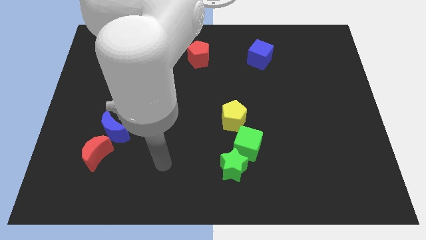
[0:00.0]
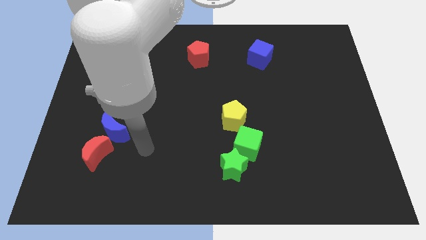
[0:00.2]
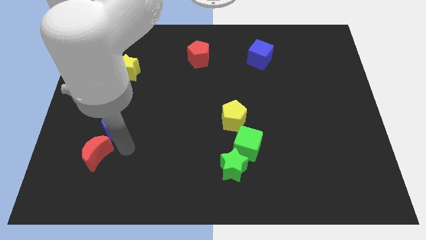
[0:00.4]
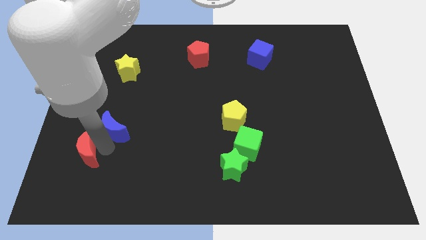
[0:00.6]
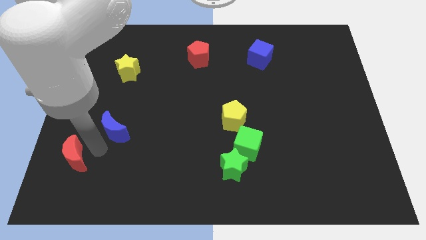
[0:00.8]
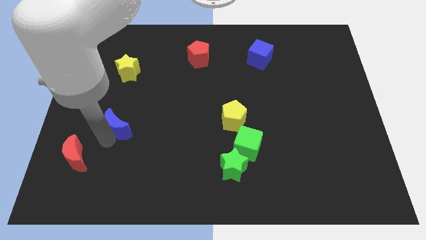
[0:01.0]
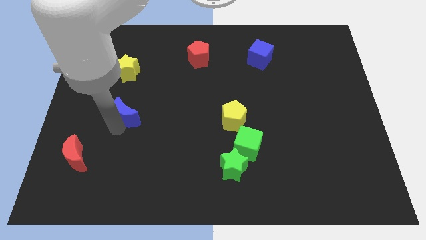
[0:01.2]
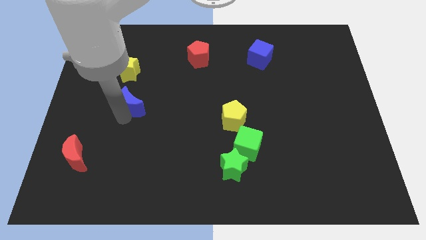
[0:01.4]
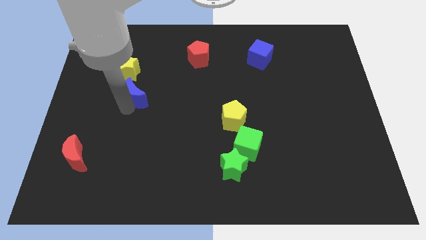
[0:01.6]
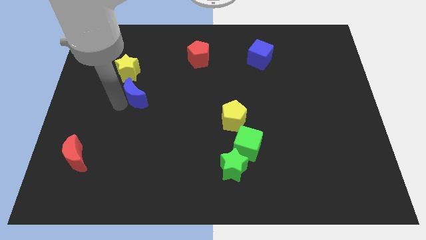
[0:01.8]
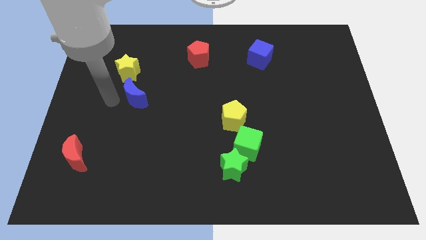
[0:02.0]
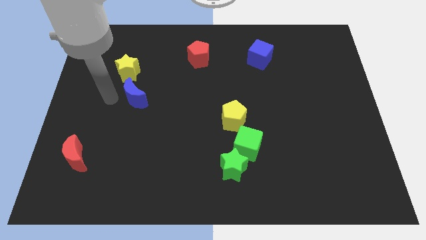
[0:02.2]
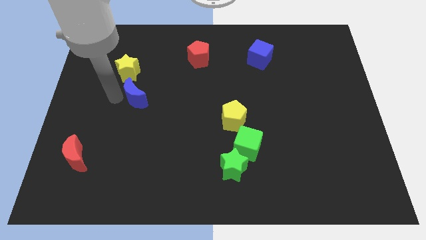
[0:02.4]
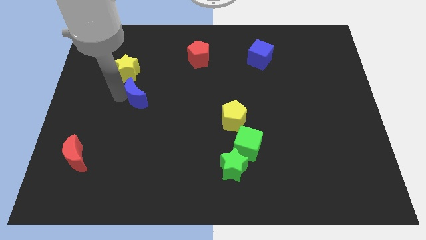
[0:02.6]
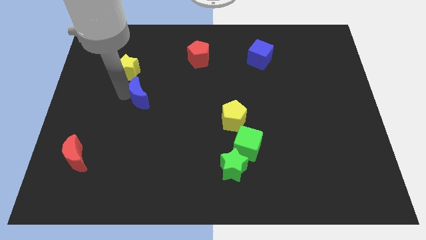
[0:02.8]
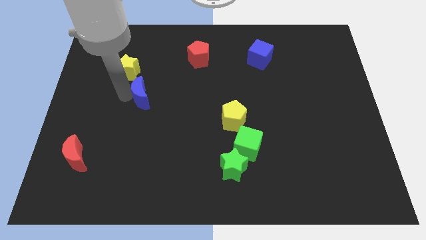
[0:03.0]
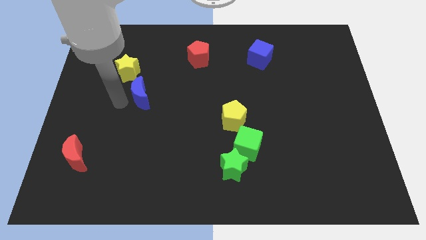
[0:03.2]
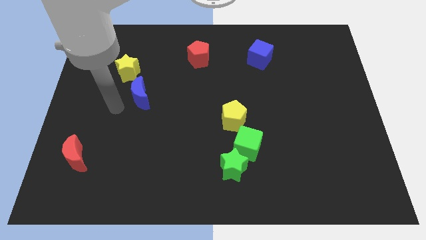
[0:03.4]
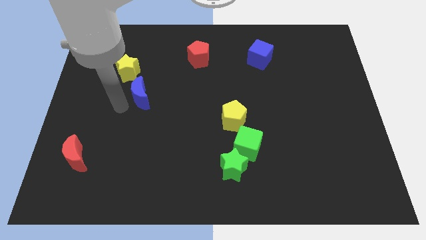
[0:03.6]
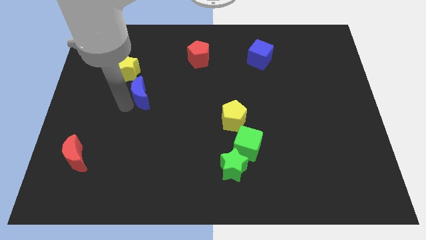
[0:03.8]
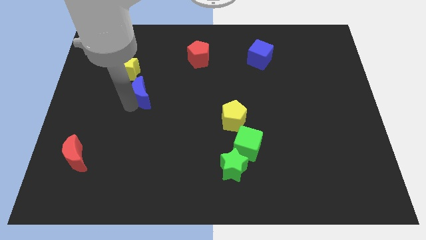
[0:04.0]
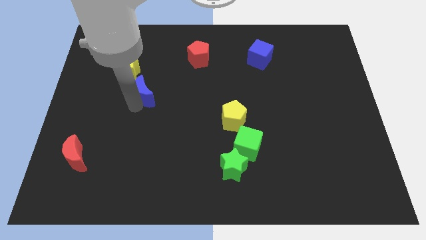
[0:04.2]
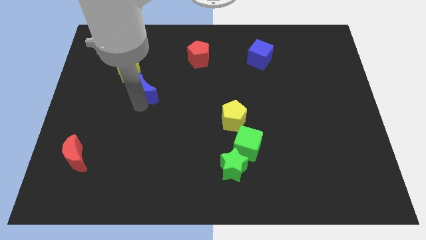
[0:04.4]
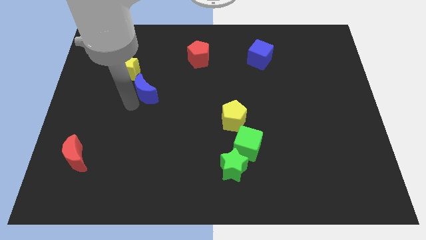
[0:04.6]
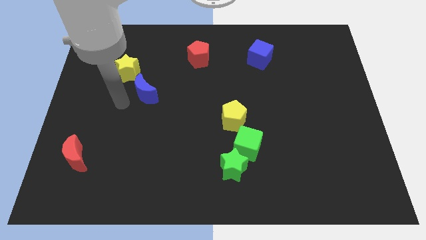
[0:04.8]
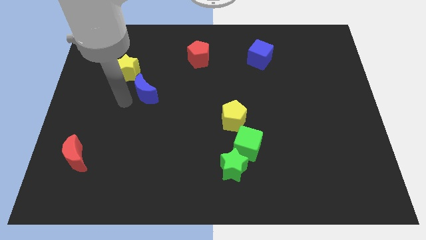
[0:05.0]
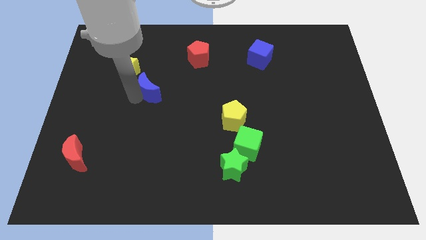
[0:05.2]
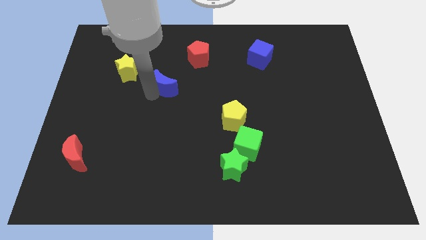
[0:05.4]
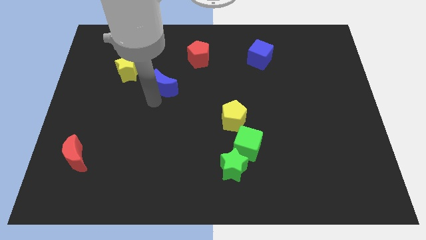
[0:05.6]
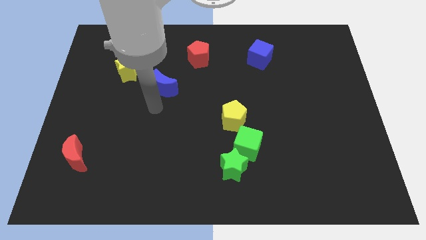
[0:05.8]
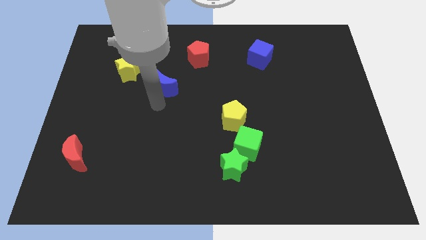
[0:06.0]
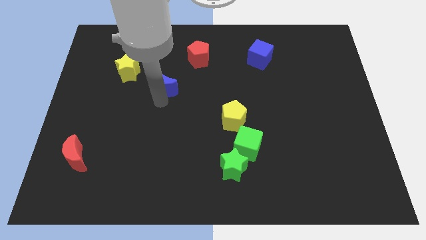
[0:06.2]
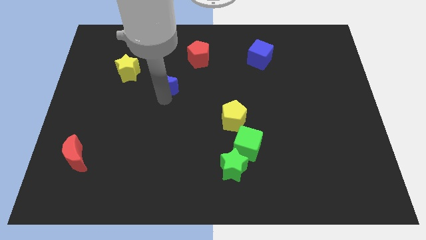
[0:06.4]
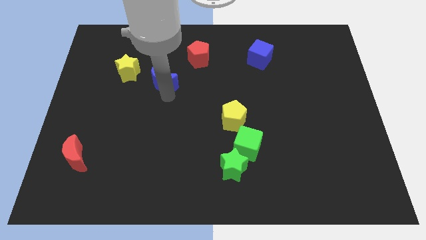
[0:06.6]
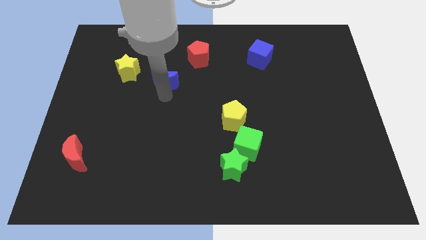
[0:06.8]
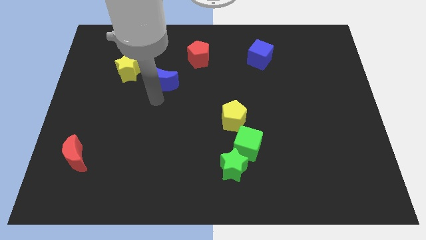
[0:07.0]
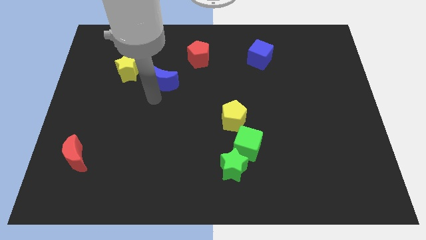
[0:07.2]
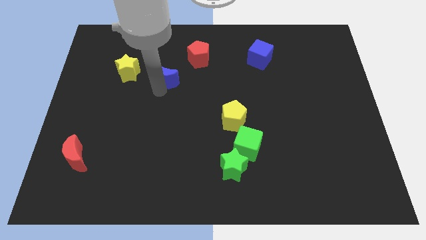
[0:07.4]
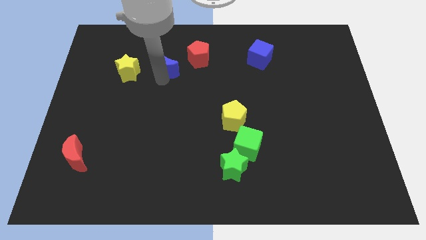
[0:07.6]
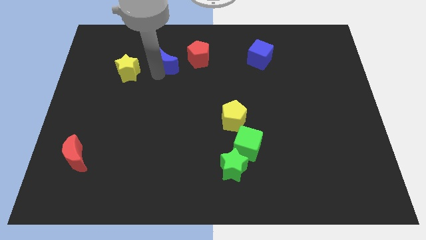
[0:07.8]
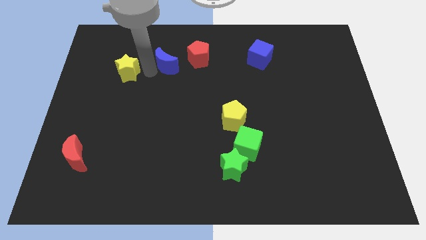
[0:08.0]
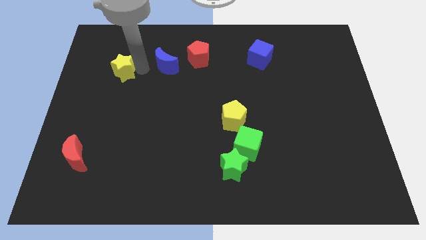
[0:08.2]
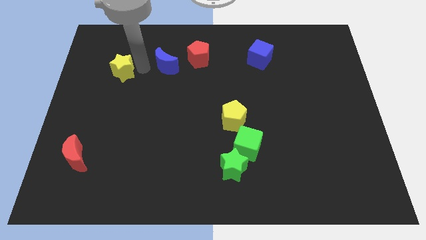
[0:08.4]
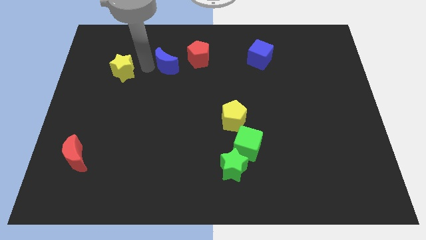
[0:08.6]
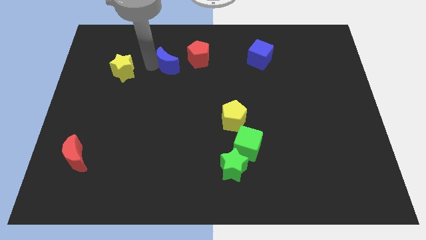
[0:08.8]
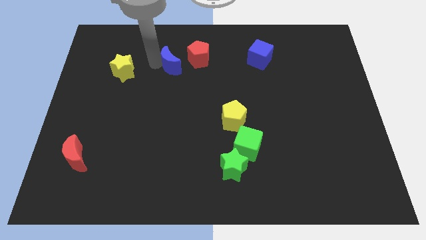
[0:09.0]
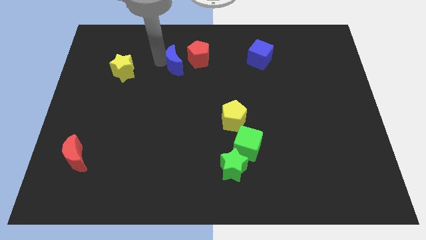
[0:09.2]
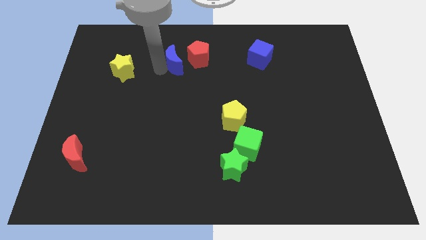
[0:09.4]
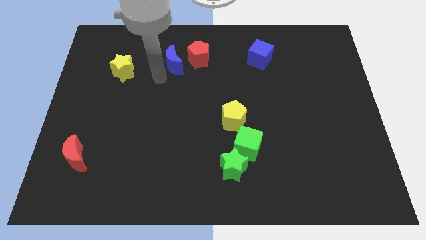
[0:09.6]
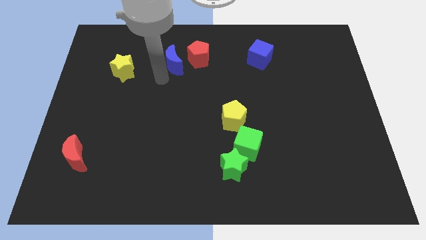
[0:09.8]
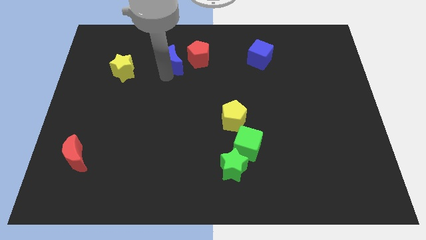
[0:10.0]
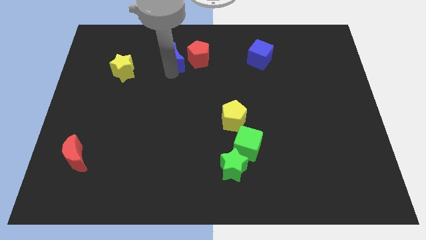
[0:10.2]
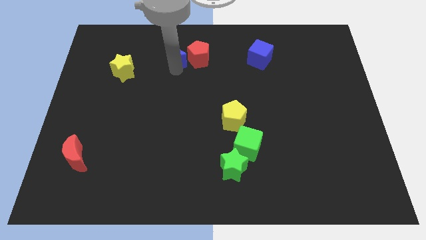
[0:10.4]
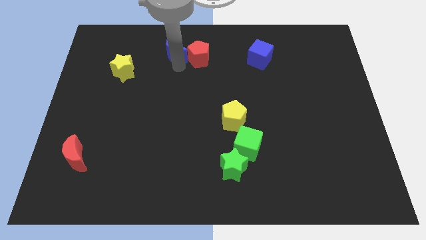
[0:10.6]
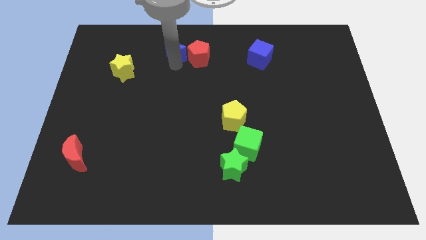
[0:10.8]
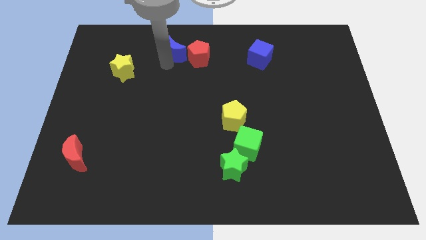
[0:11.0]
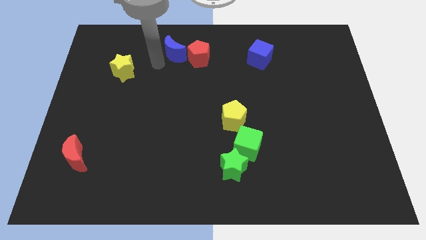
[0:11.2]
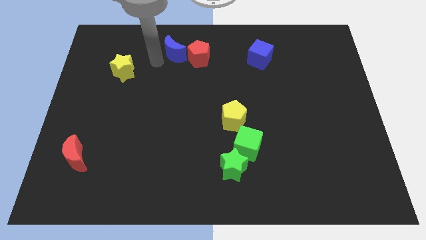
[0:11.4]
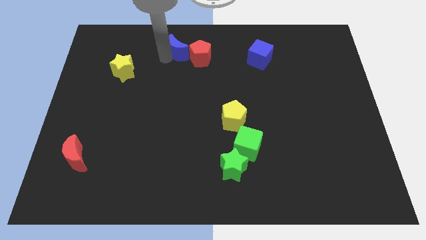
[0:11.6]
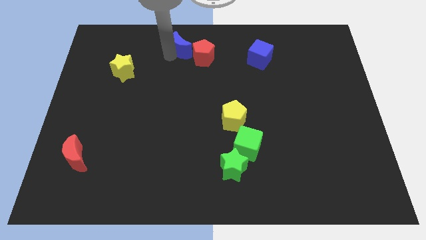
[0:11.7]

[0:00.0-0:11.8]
move the blue moon to the top side

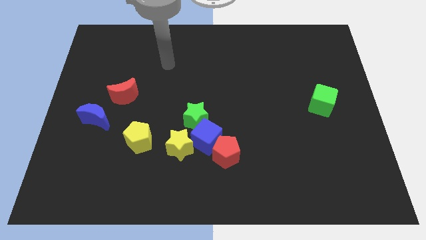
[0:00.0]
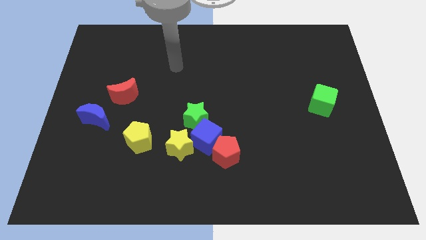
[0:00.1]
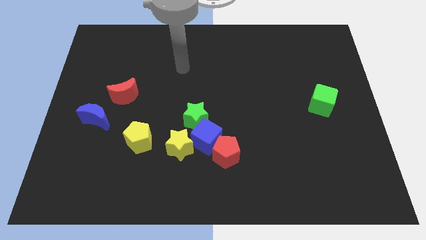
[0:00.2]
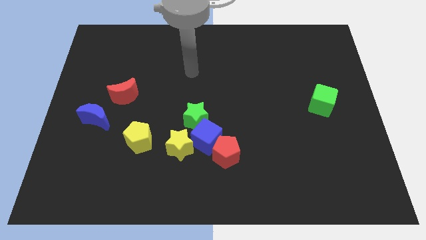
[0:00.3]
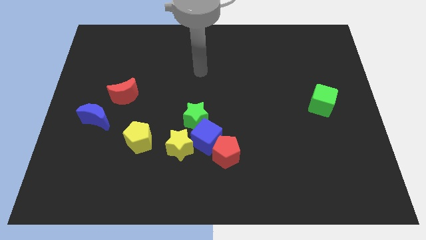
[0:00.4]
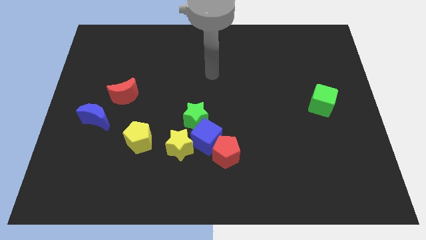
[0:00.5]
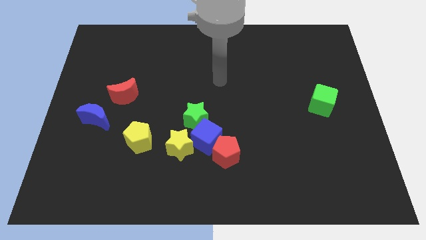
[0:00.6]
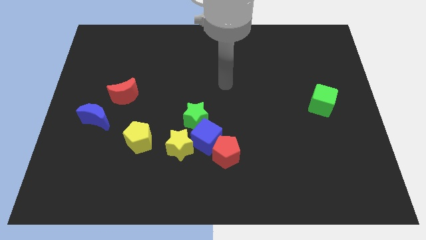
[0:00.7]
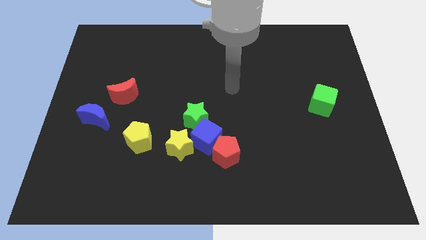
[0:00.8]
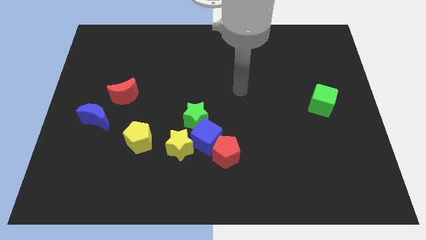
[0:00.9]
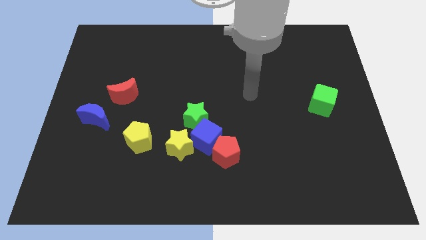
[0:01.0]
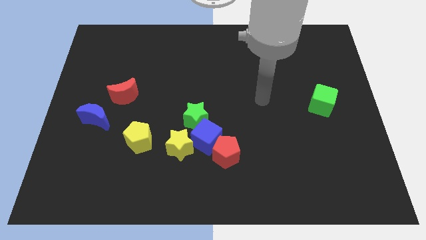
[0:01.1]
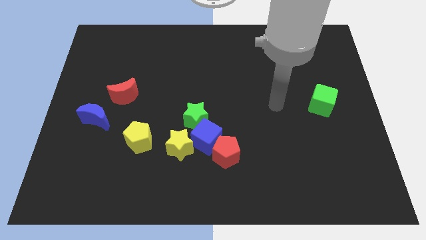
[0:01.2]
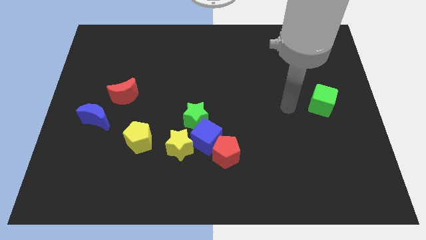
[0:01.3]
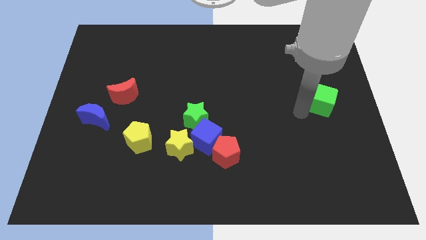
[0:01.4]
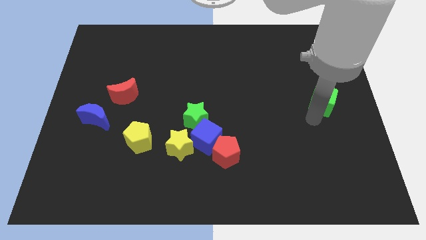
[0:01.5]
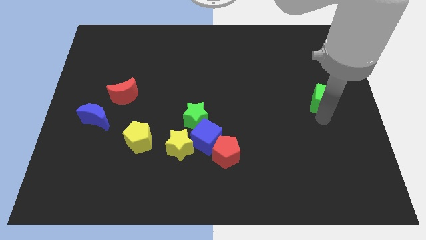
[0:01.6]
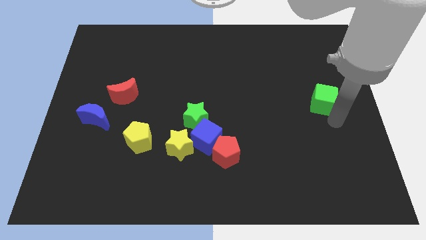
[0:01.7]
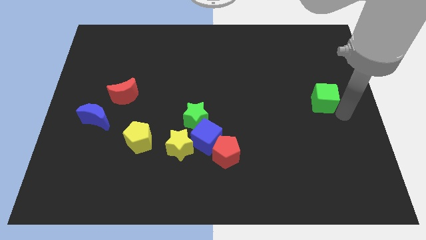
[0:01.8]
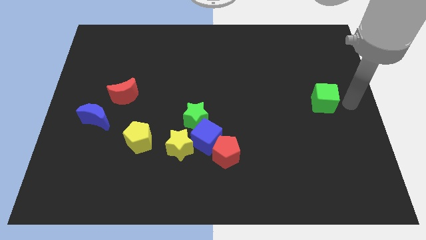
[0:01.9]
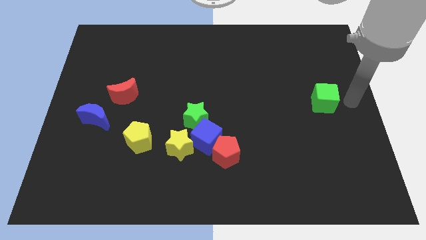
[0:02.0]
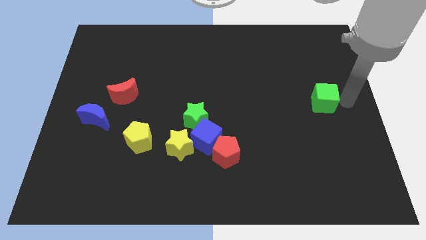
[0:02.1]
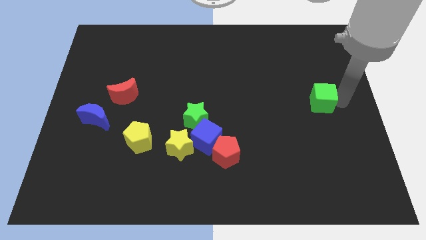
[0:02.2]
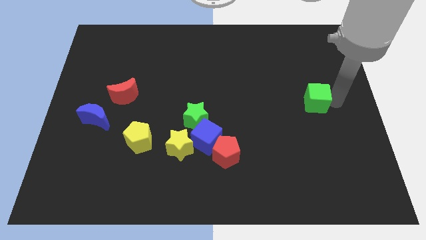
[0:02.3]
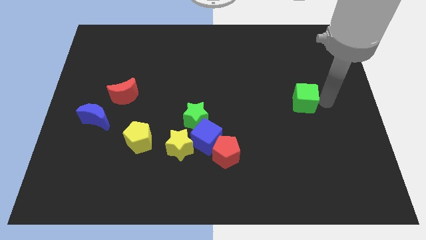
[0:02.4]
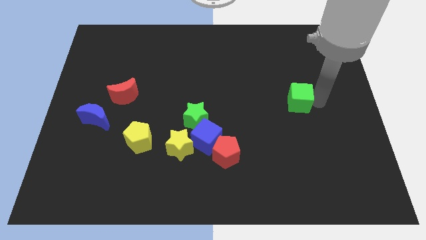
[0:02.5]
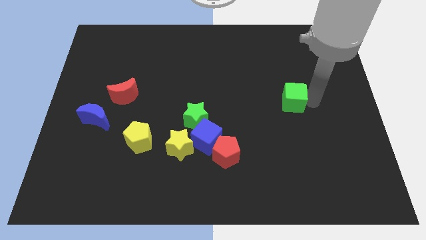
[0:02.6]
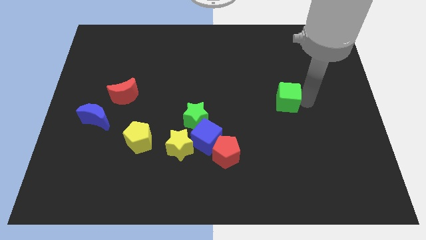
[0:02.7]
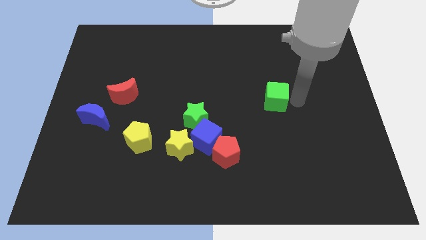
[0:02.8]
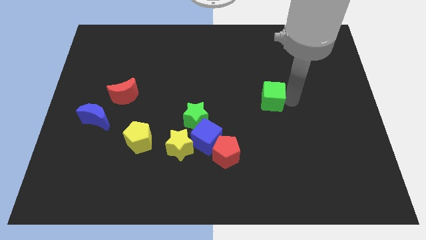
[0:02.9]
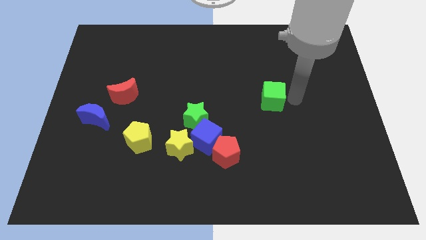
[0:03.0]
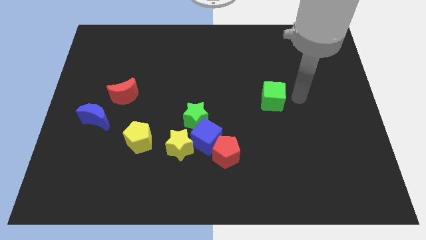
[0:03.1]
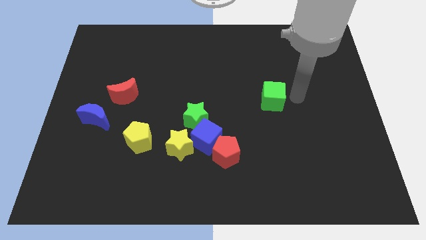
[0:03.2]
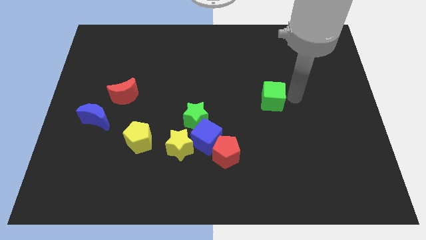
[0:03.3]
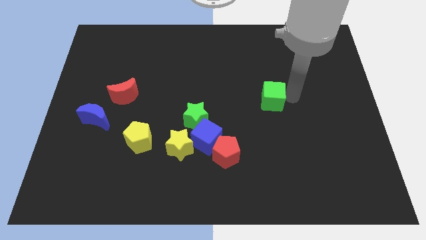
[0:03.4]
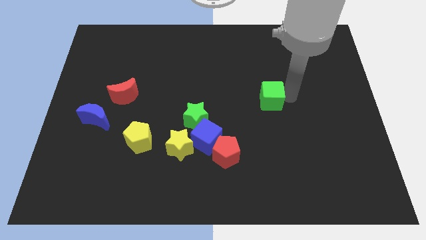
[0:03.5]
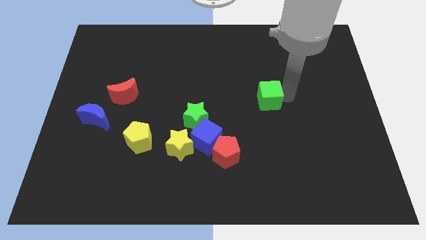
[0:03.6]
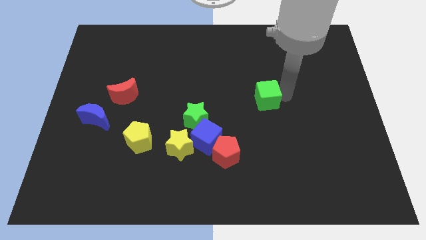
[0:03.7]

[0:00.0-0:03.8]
put the green cube to the center
